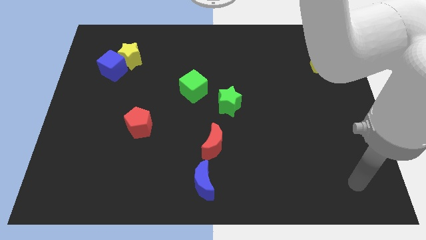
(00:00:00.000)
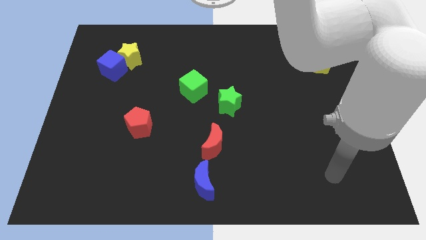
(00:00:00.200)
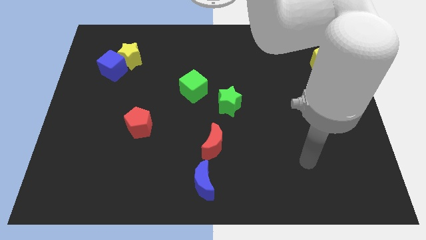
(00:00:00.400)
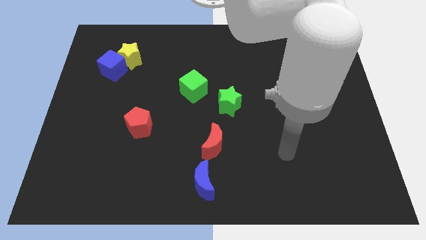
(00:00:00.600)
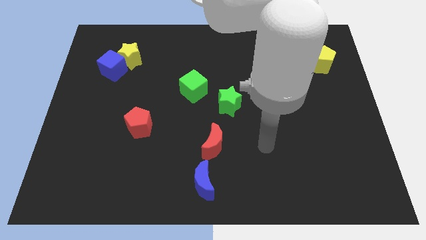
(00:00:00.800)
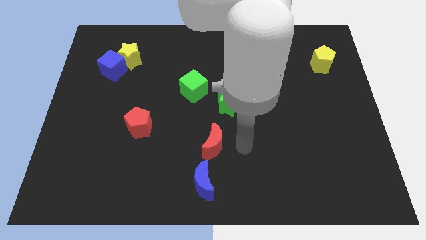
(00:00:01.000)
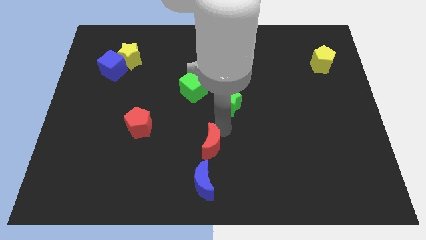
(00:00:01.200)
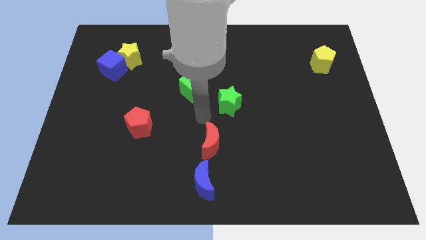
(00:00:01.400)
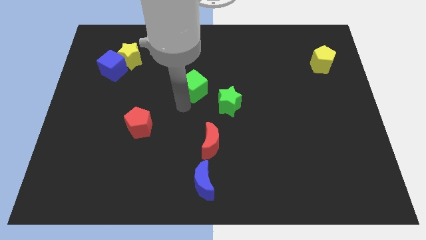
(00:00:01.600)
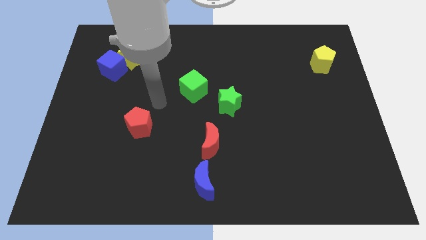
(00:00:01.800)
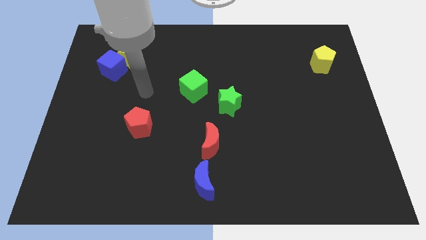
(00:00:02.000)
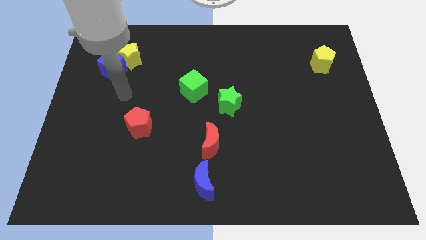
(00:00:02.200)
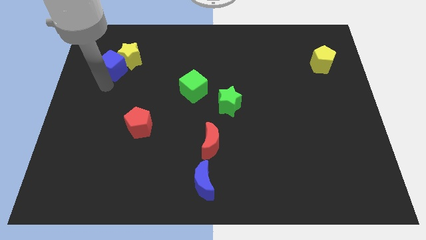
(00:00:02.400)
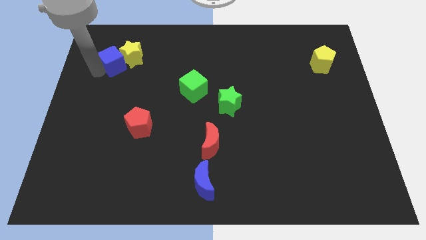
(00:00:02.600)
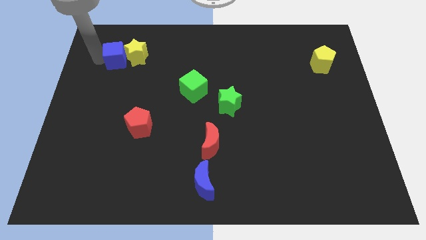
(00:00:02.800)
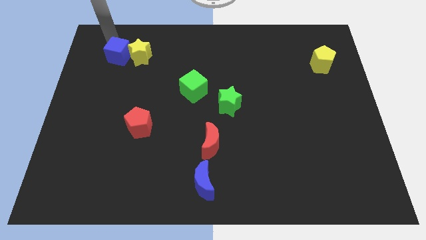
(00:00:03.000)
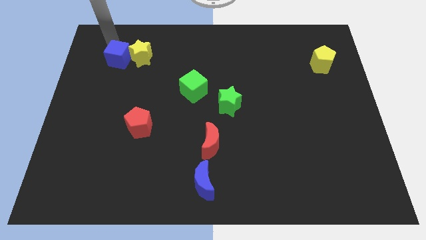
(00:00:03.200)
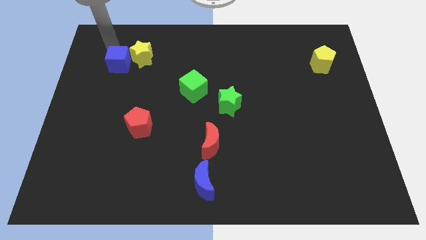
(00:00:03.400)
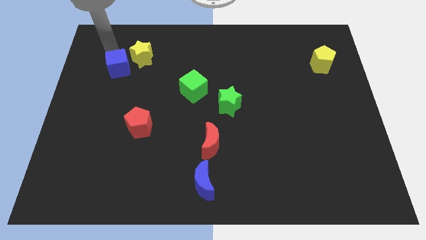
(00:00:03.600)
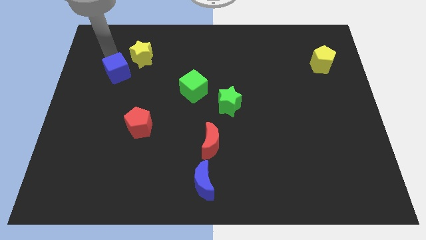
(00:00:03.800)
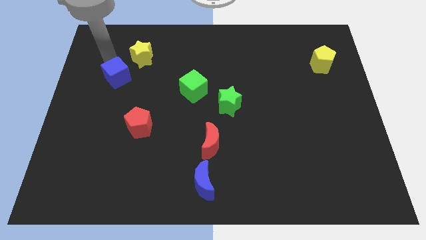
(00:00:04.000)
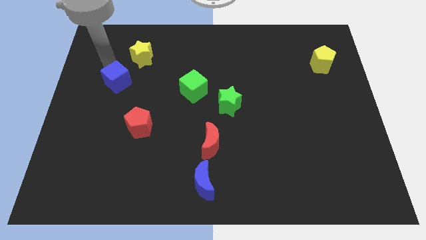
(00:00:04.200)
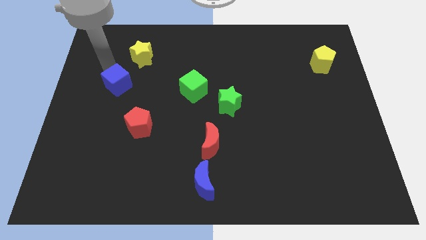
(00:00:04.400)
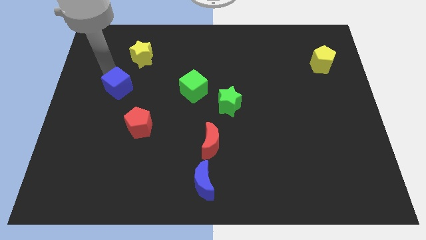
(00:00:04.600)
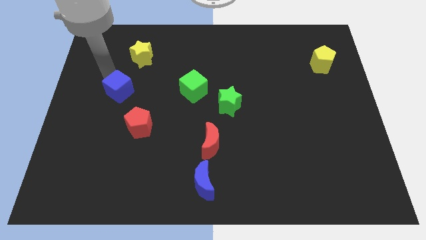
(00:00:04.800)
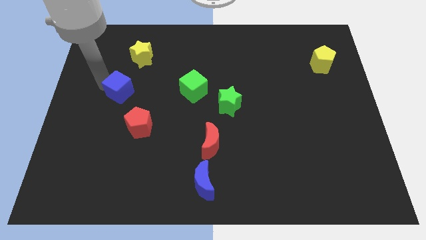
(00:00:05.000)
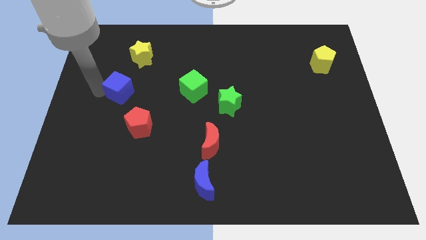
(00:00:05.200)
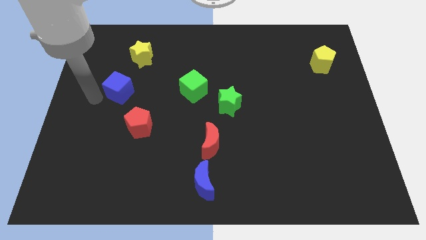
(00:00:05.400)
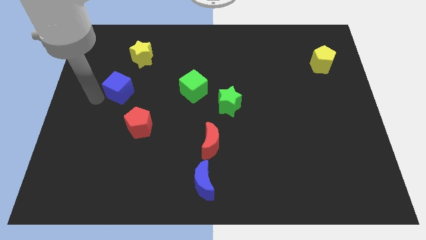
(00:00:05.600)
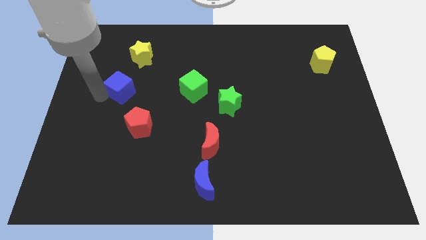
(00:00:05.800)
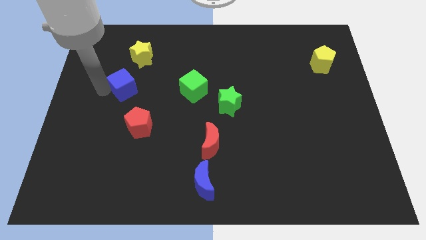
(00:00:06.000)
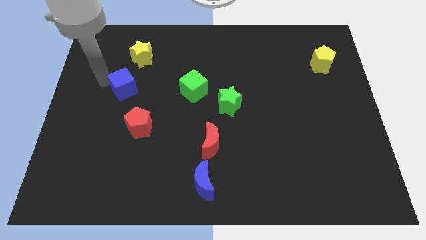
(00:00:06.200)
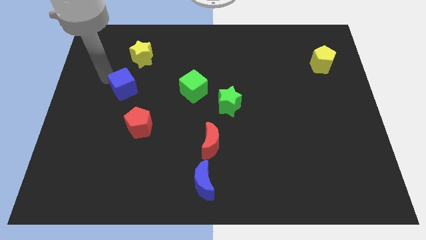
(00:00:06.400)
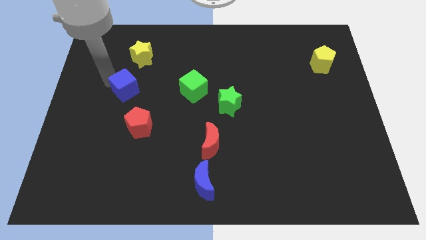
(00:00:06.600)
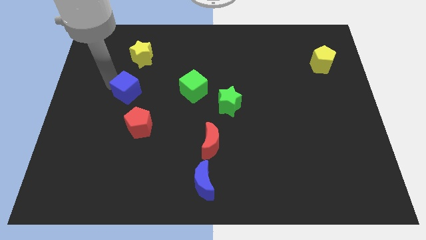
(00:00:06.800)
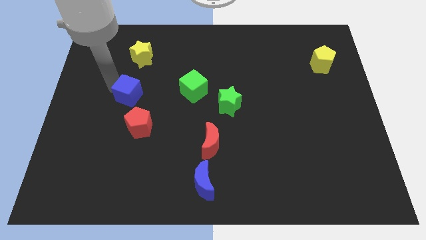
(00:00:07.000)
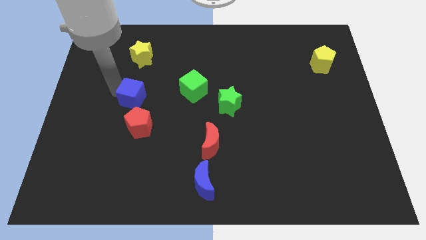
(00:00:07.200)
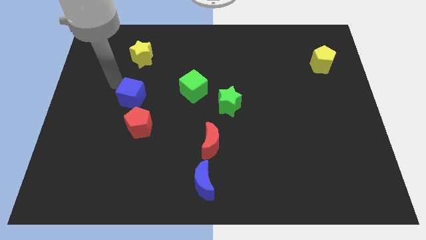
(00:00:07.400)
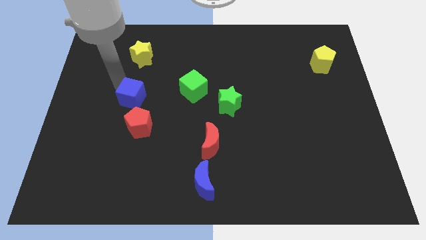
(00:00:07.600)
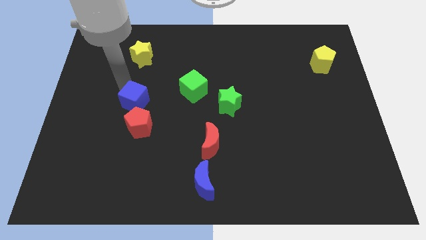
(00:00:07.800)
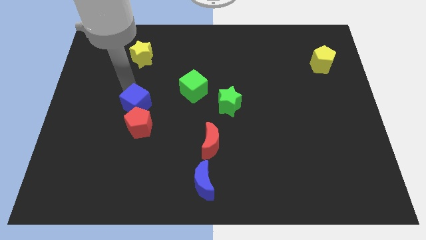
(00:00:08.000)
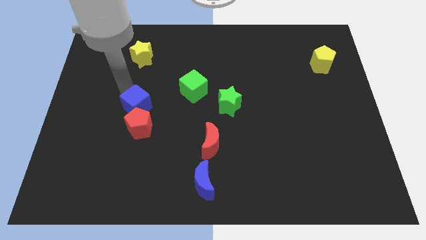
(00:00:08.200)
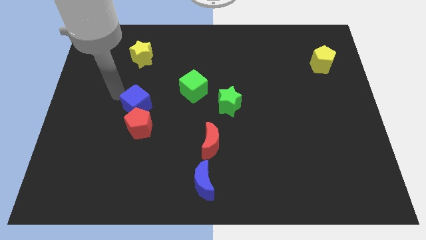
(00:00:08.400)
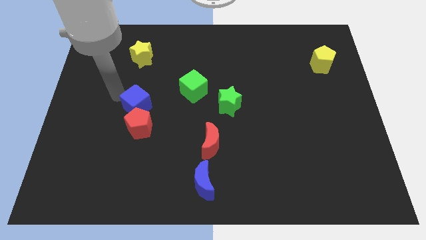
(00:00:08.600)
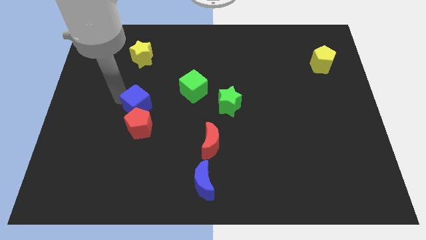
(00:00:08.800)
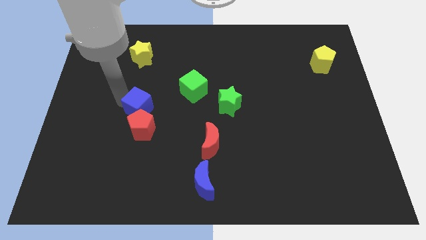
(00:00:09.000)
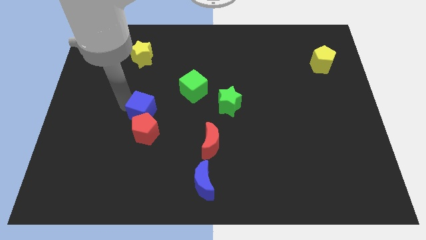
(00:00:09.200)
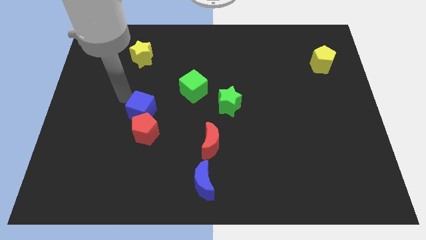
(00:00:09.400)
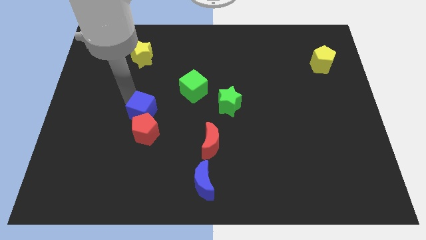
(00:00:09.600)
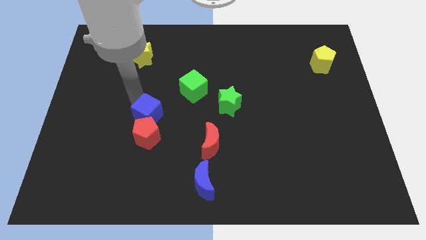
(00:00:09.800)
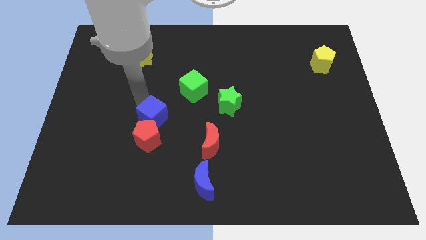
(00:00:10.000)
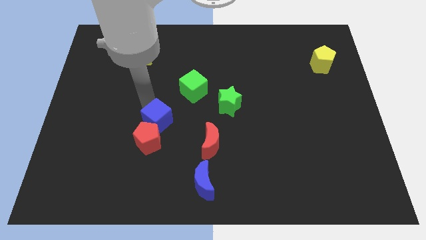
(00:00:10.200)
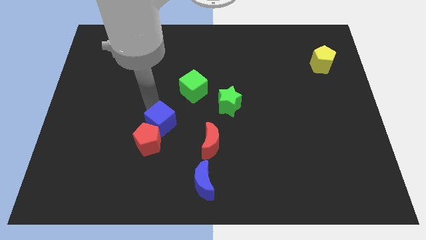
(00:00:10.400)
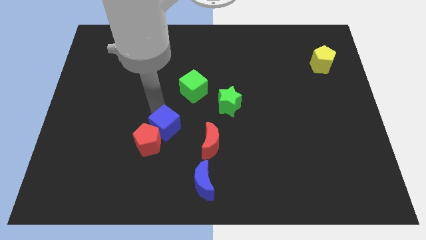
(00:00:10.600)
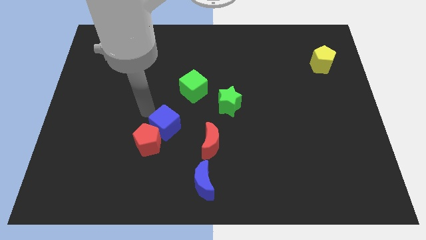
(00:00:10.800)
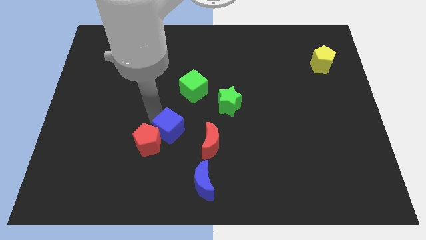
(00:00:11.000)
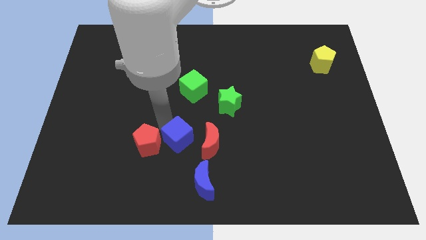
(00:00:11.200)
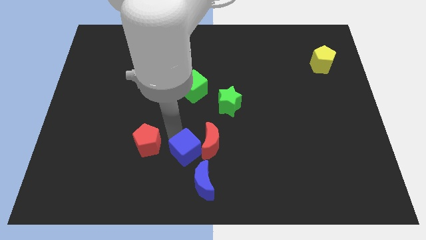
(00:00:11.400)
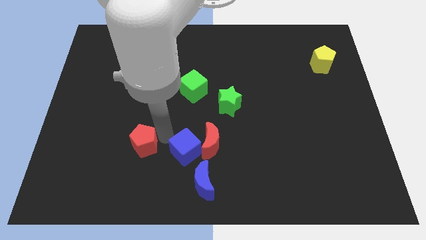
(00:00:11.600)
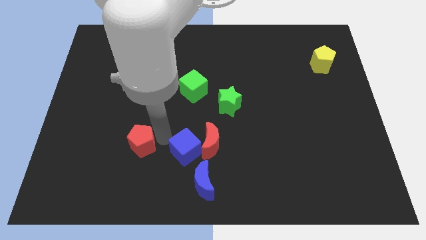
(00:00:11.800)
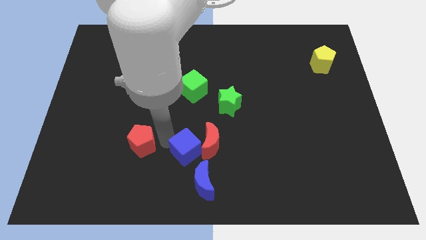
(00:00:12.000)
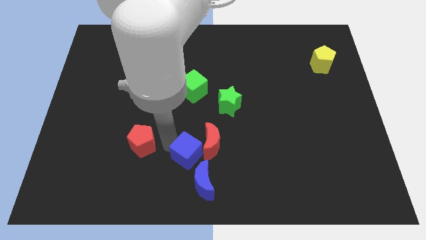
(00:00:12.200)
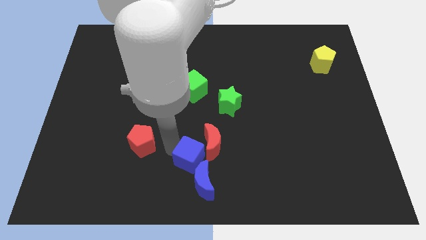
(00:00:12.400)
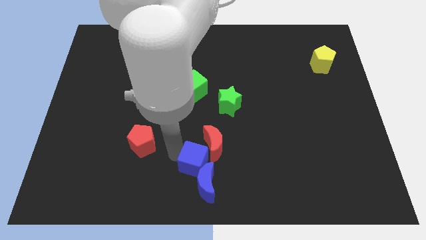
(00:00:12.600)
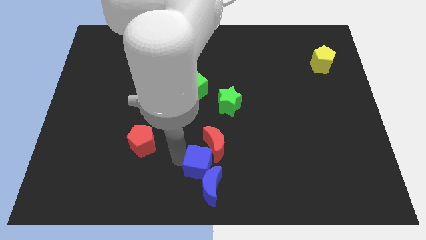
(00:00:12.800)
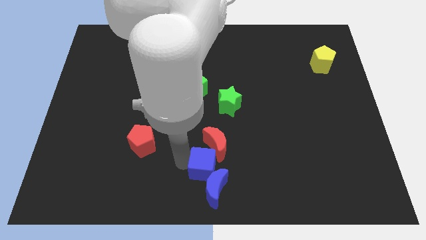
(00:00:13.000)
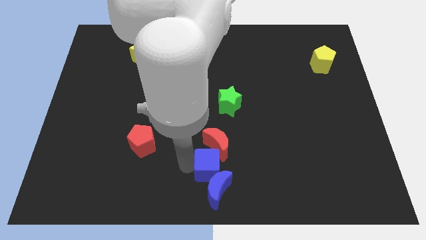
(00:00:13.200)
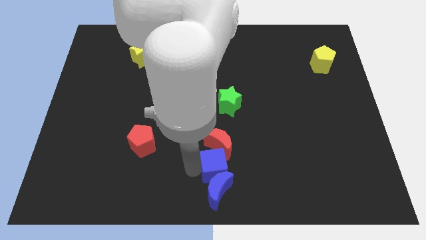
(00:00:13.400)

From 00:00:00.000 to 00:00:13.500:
put the blue cube diagonally down and to the right of the red moon
